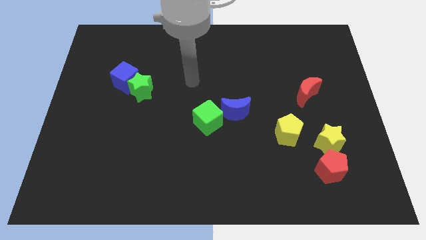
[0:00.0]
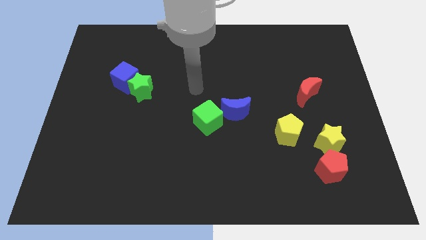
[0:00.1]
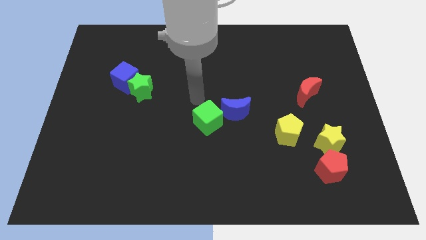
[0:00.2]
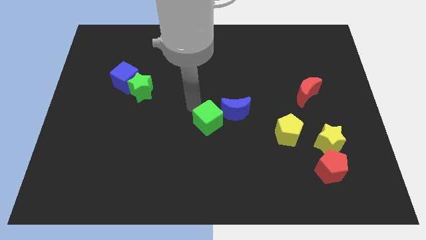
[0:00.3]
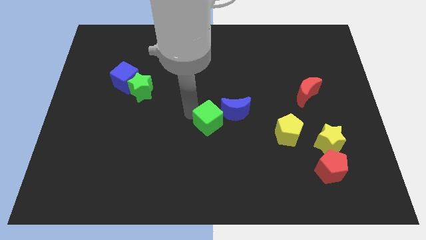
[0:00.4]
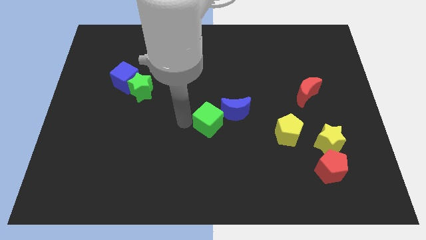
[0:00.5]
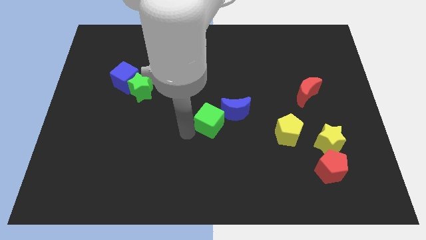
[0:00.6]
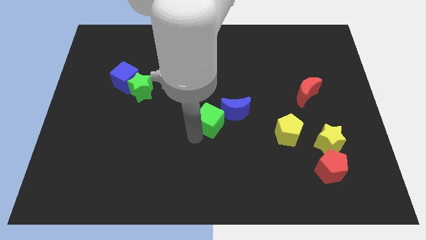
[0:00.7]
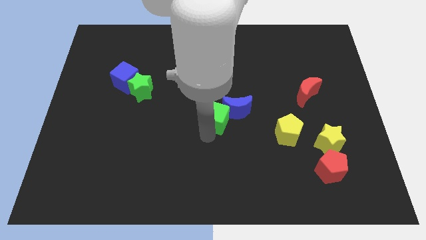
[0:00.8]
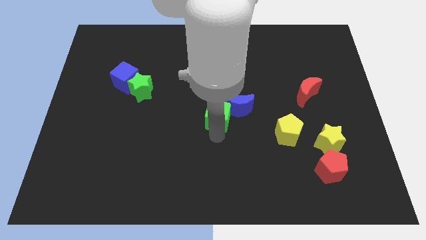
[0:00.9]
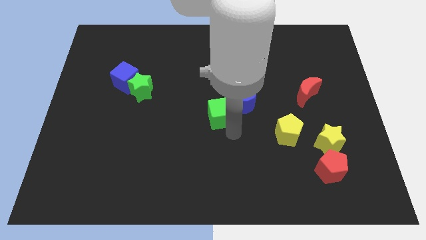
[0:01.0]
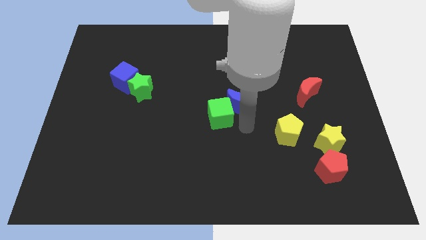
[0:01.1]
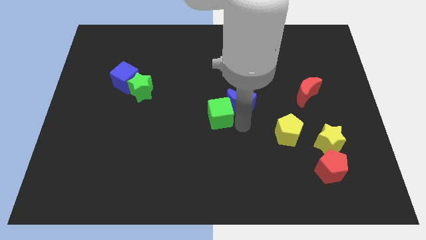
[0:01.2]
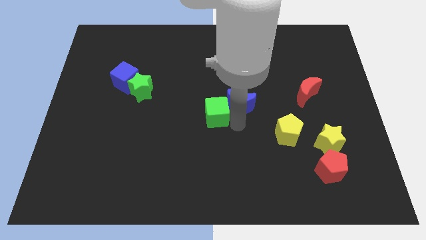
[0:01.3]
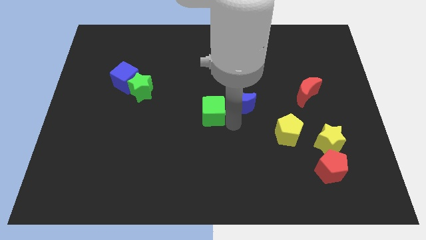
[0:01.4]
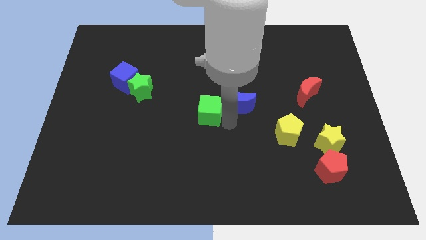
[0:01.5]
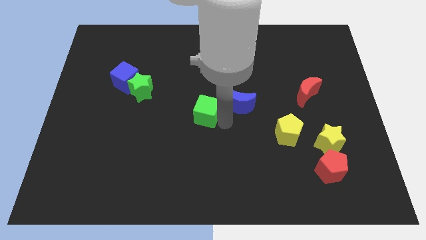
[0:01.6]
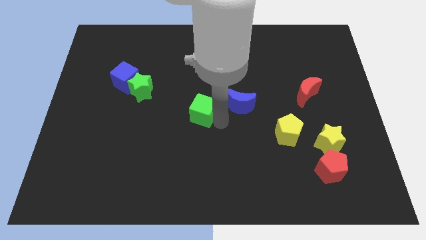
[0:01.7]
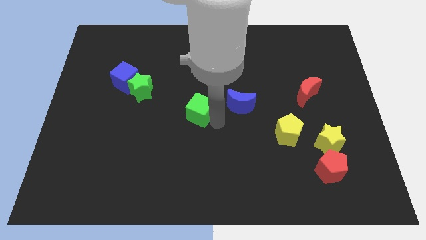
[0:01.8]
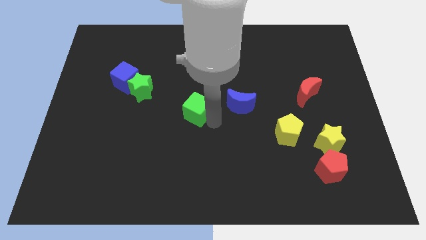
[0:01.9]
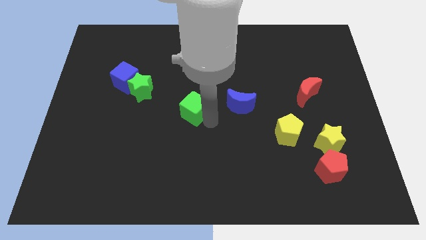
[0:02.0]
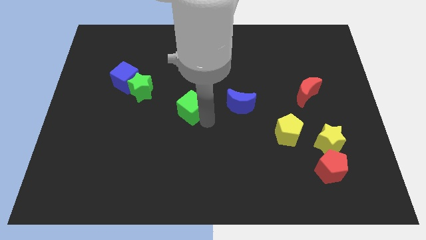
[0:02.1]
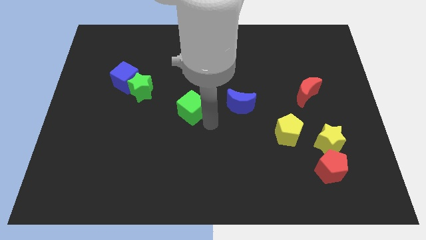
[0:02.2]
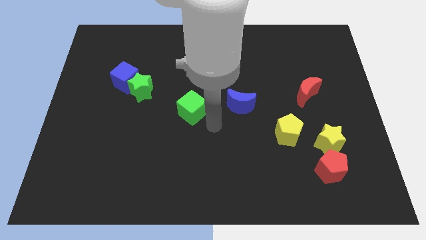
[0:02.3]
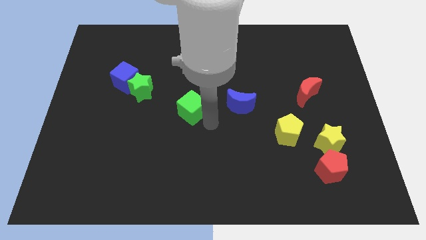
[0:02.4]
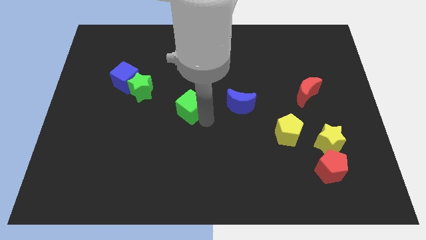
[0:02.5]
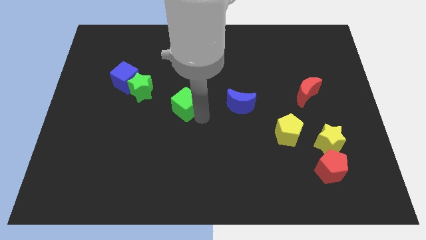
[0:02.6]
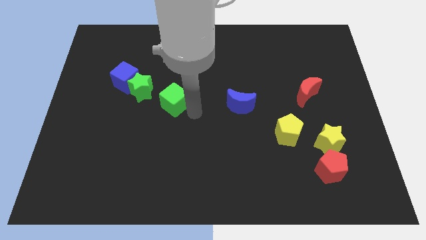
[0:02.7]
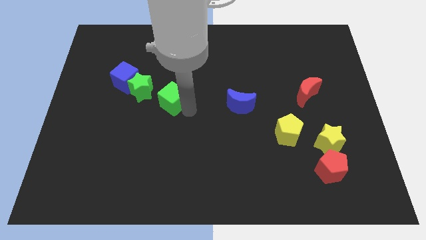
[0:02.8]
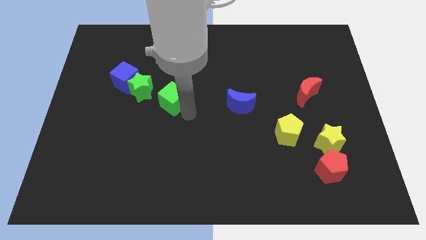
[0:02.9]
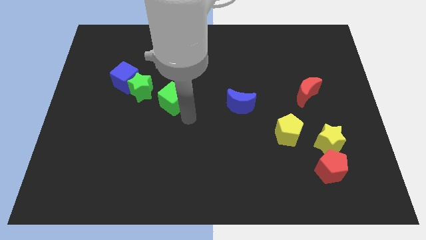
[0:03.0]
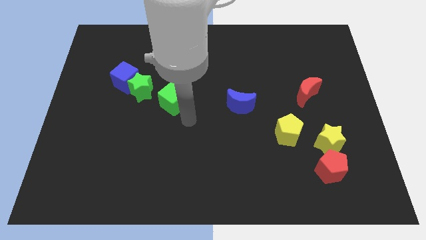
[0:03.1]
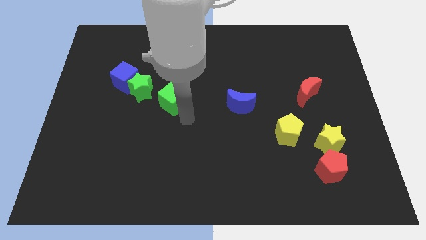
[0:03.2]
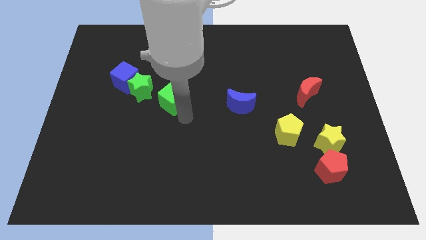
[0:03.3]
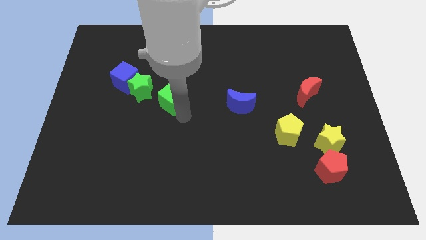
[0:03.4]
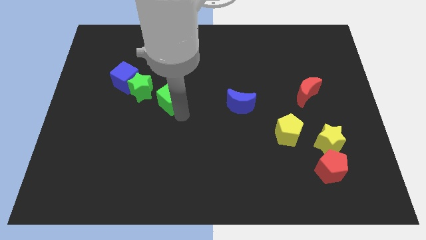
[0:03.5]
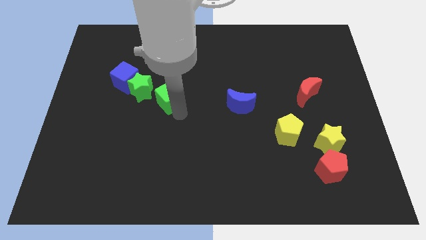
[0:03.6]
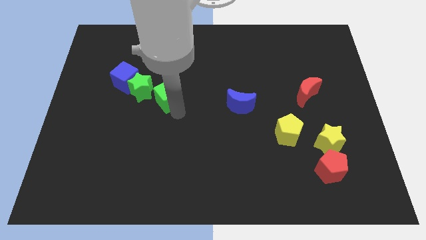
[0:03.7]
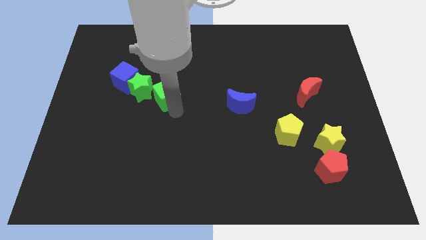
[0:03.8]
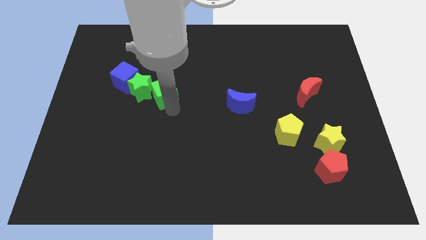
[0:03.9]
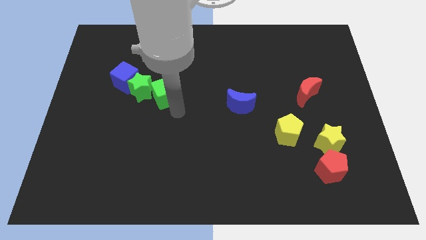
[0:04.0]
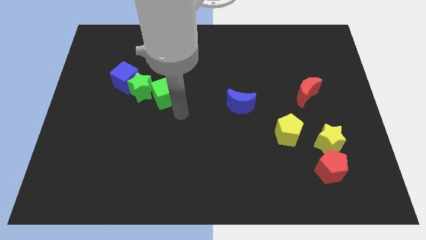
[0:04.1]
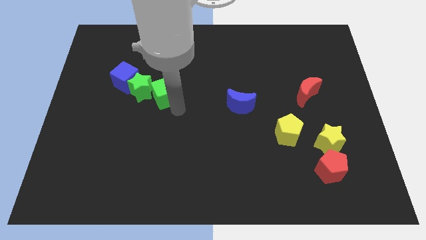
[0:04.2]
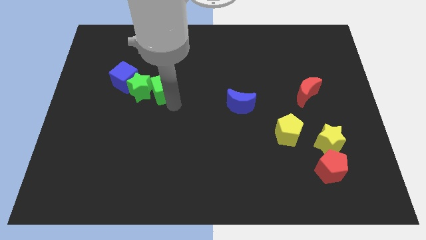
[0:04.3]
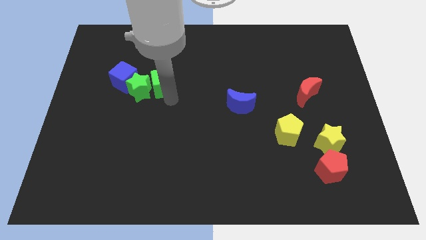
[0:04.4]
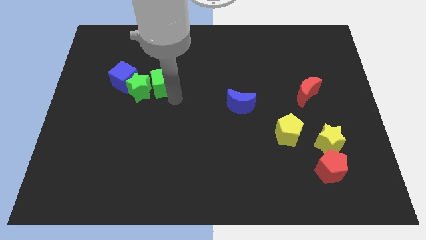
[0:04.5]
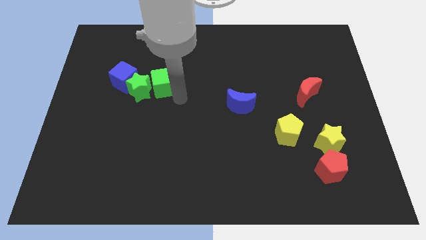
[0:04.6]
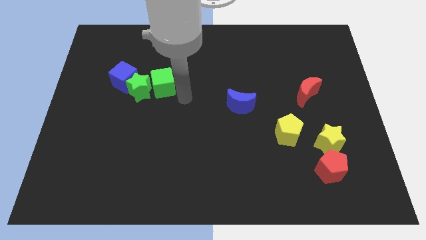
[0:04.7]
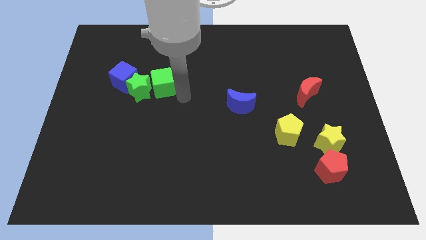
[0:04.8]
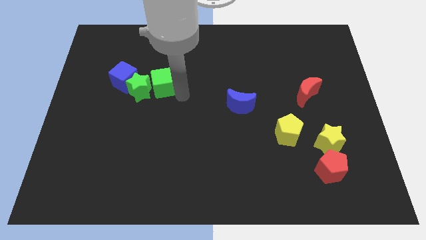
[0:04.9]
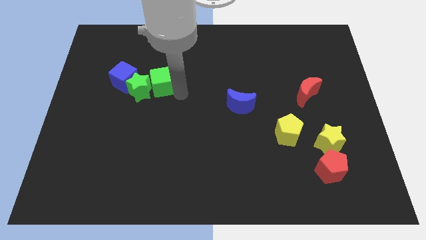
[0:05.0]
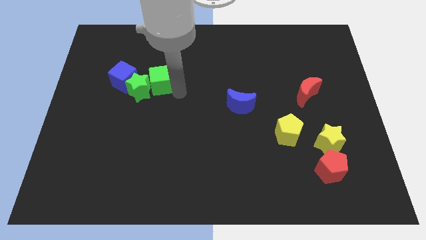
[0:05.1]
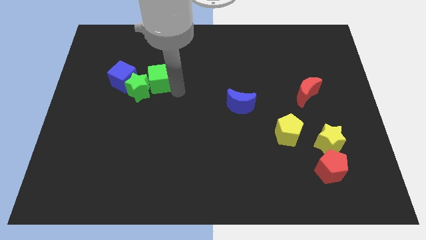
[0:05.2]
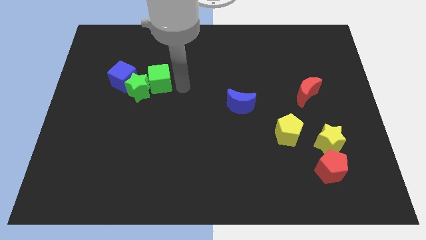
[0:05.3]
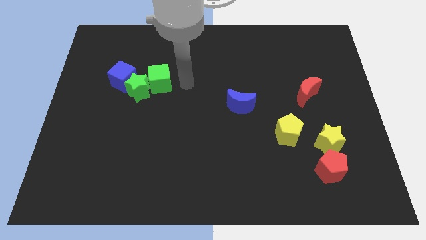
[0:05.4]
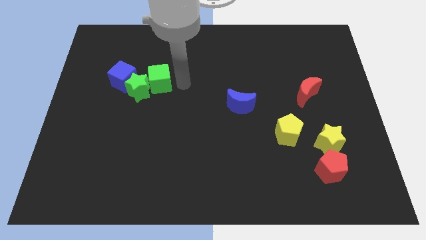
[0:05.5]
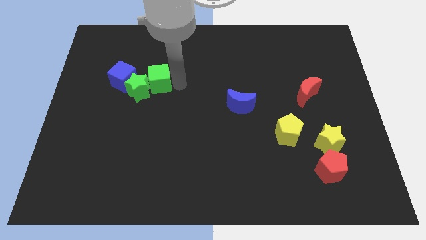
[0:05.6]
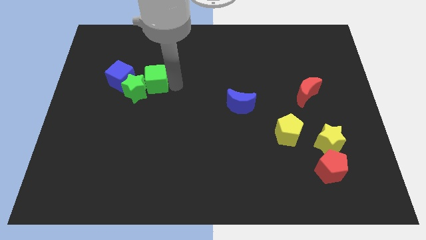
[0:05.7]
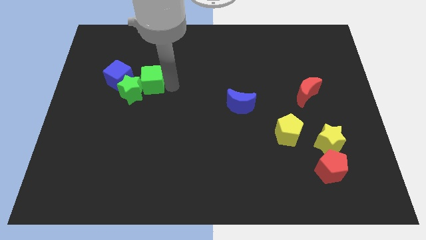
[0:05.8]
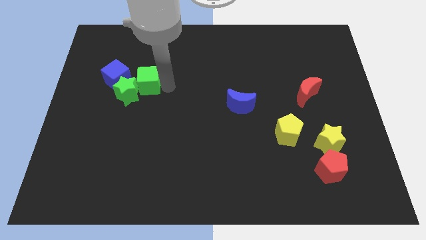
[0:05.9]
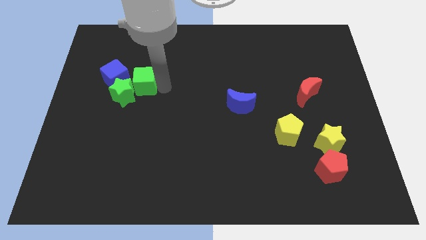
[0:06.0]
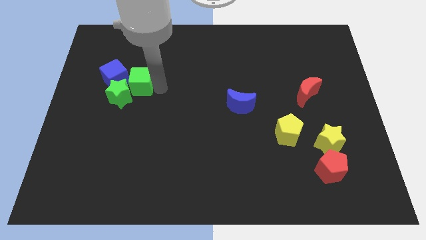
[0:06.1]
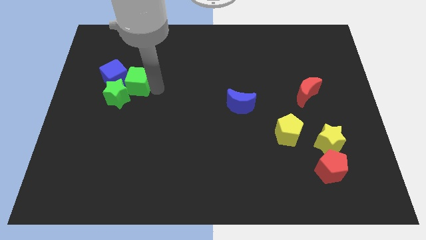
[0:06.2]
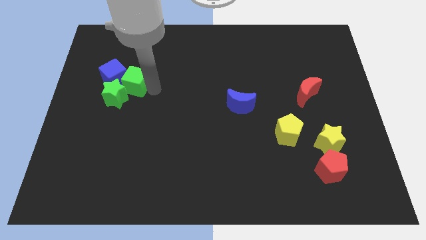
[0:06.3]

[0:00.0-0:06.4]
put the green cube towards the blue cube

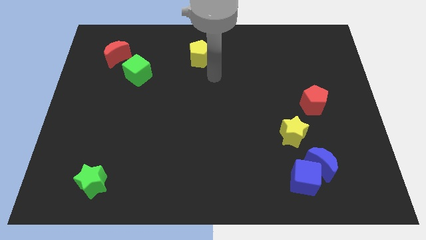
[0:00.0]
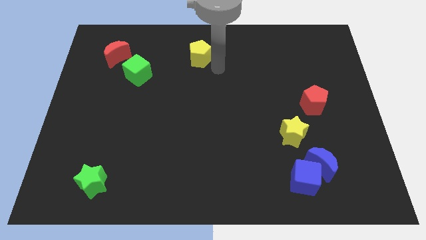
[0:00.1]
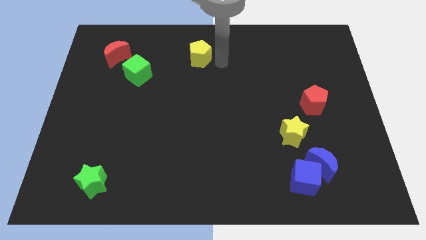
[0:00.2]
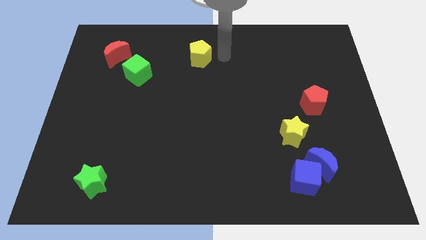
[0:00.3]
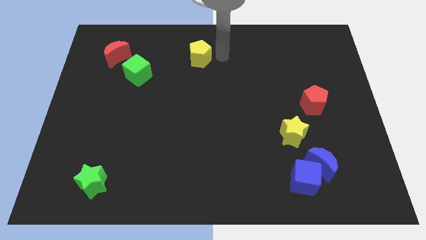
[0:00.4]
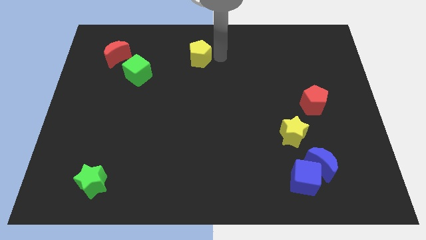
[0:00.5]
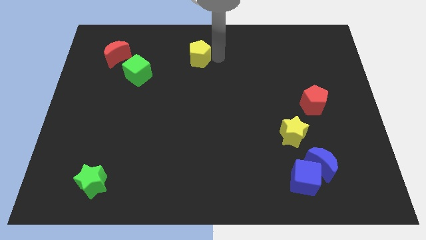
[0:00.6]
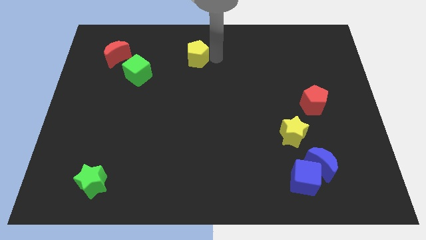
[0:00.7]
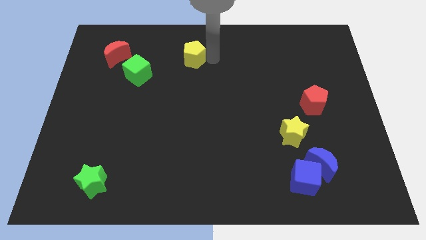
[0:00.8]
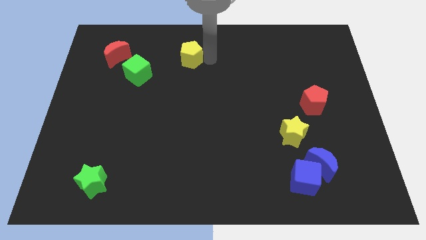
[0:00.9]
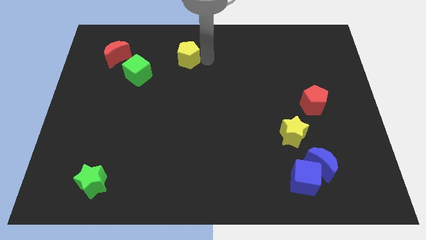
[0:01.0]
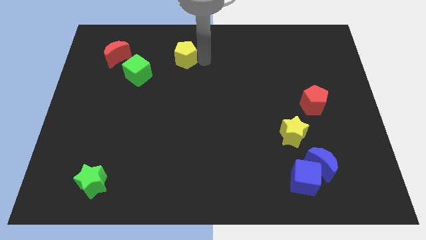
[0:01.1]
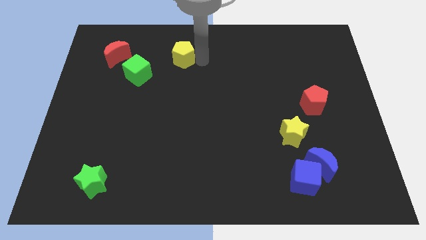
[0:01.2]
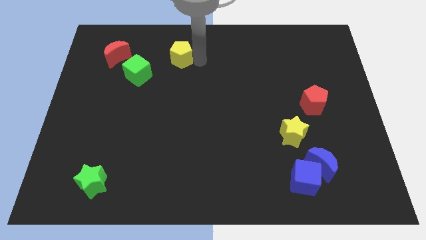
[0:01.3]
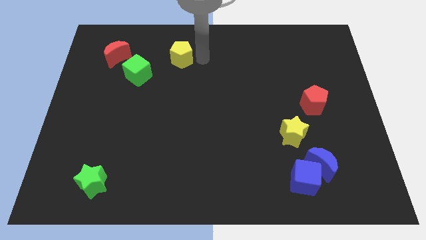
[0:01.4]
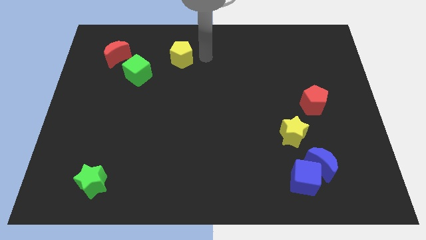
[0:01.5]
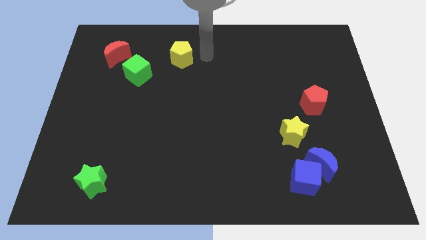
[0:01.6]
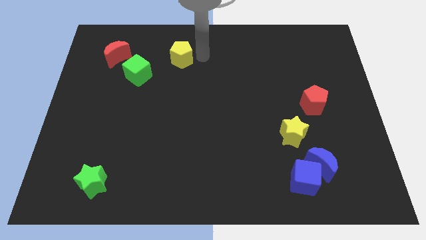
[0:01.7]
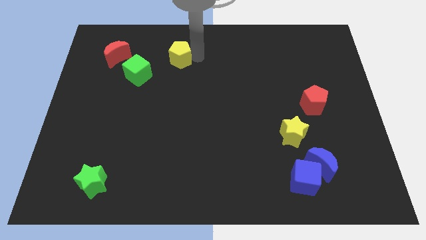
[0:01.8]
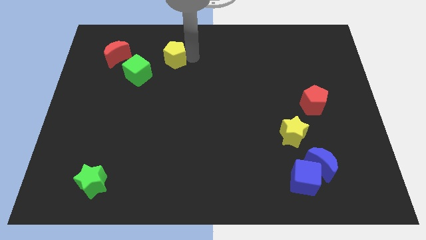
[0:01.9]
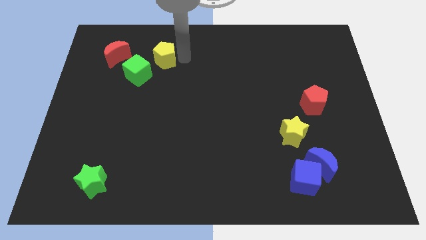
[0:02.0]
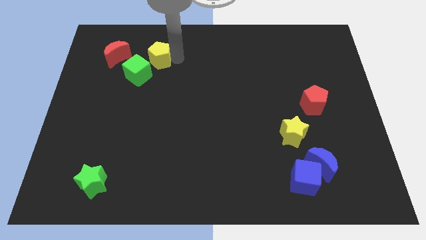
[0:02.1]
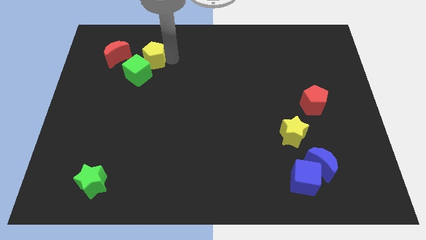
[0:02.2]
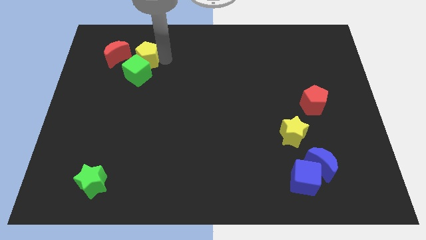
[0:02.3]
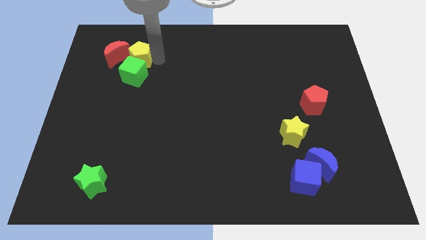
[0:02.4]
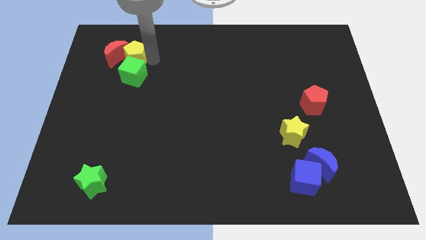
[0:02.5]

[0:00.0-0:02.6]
slide the yellow pentagon towards the red moon
